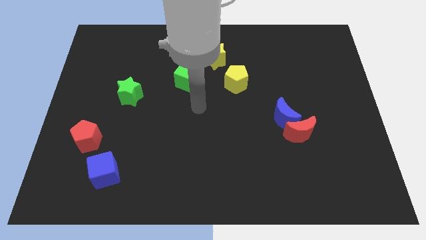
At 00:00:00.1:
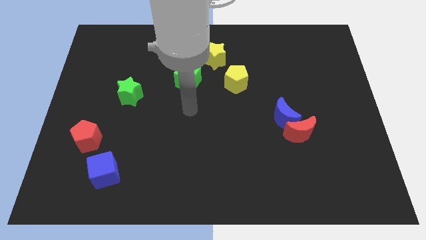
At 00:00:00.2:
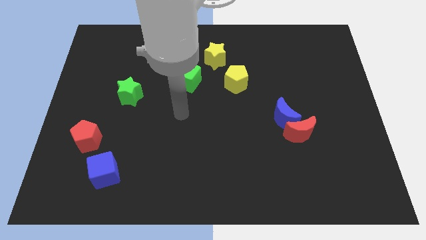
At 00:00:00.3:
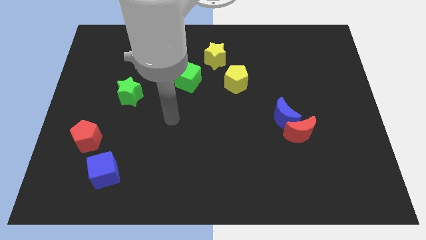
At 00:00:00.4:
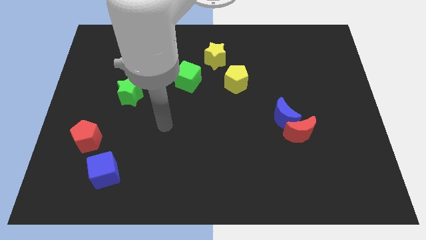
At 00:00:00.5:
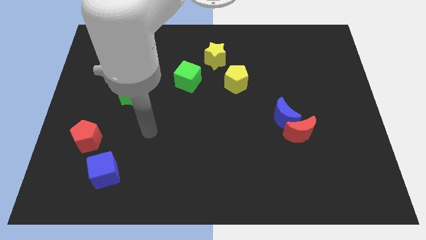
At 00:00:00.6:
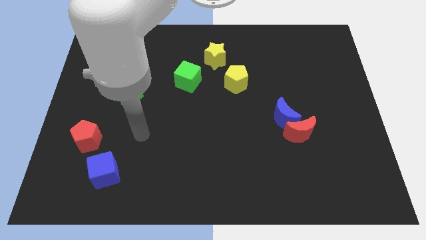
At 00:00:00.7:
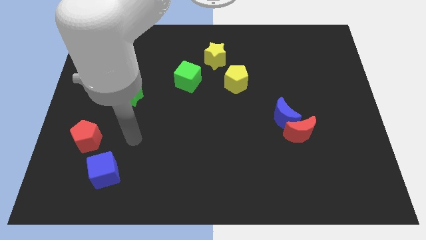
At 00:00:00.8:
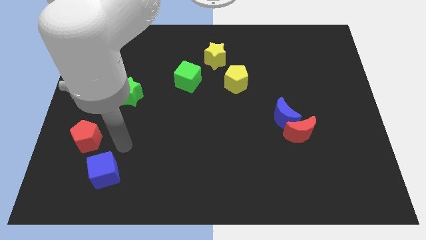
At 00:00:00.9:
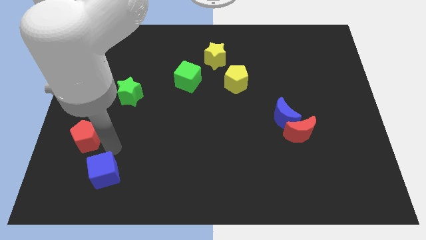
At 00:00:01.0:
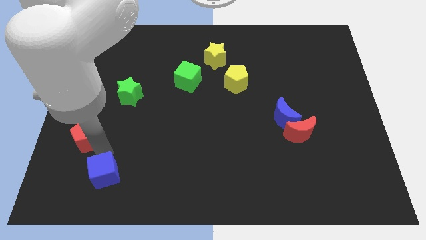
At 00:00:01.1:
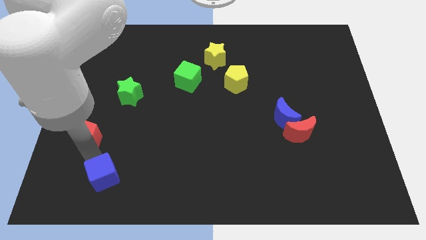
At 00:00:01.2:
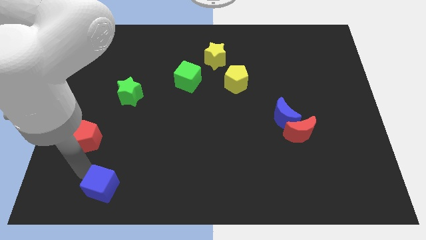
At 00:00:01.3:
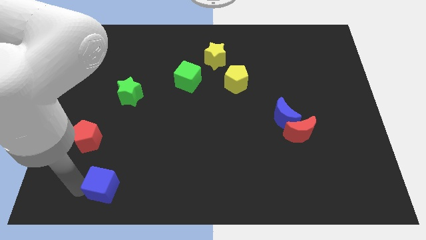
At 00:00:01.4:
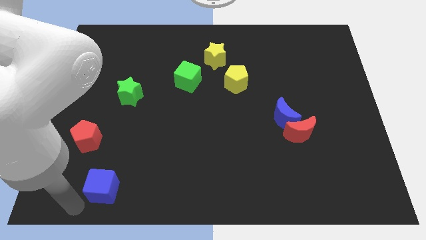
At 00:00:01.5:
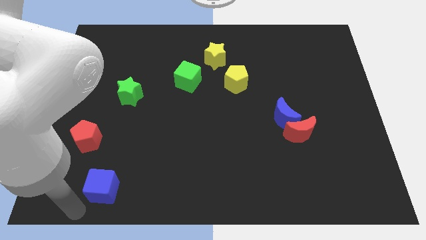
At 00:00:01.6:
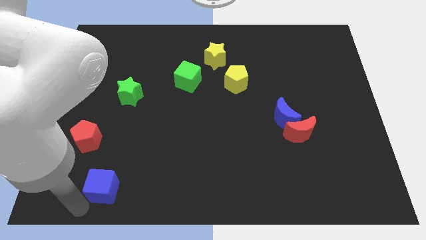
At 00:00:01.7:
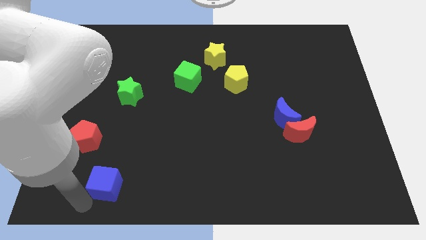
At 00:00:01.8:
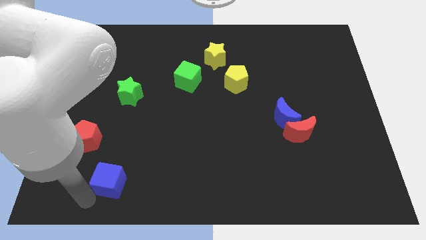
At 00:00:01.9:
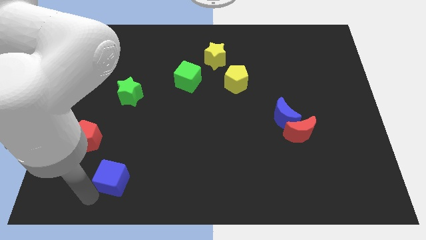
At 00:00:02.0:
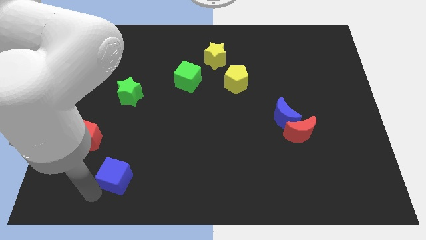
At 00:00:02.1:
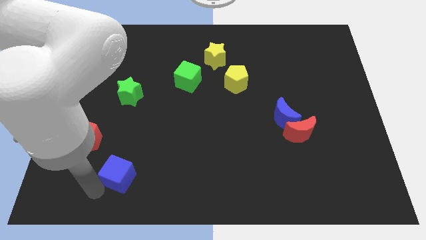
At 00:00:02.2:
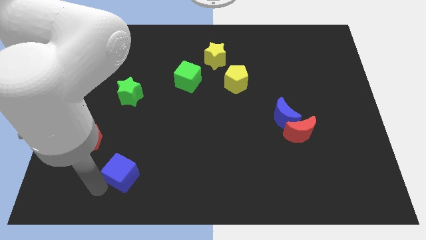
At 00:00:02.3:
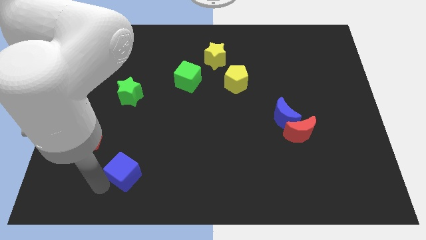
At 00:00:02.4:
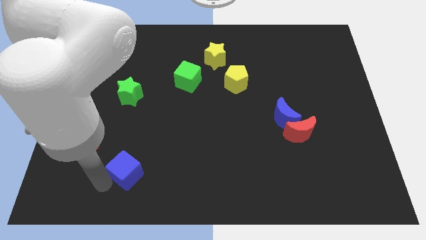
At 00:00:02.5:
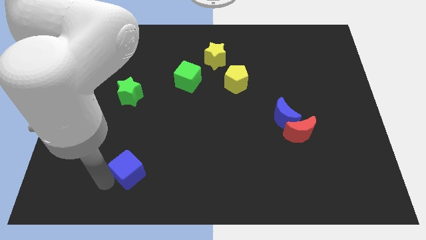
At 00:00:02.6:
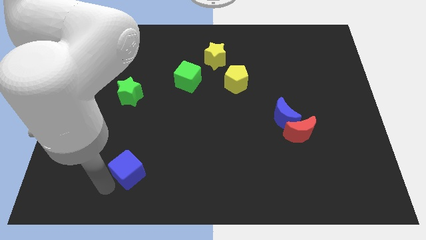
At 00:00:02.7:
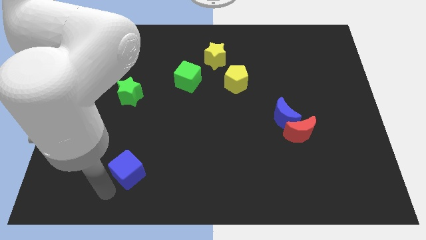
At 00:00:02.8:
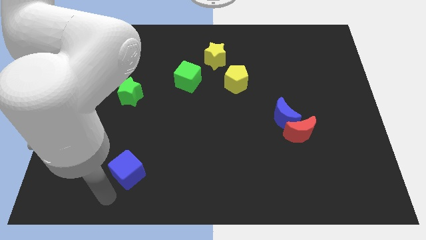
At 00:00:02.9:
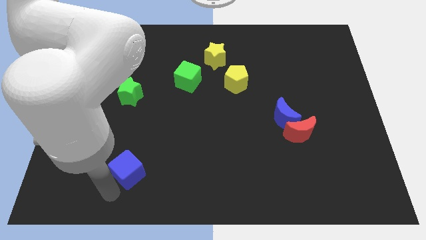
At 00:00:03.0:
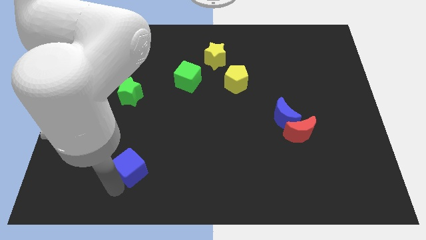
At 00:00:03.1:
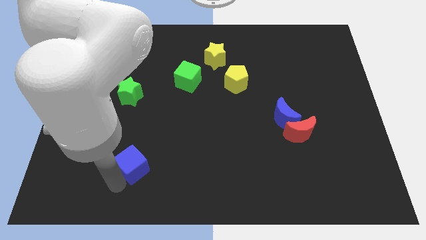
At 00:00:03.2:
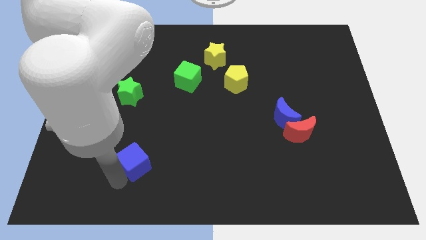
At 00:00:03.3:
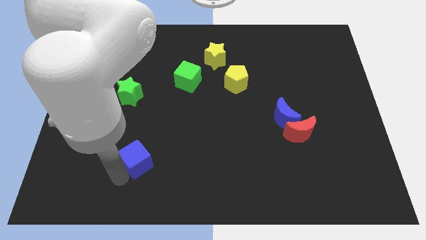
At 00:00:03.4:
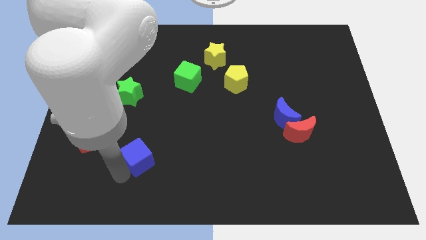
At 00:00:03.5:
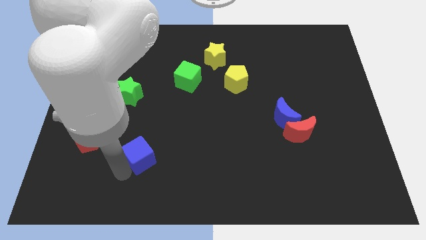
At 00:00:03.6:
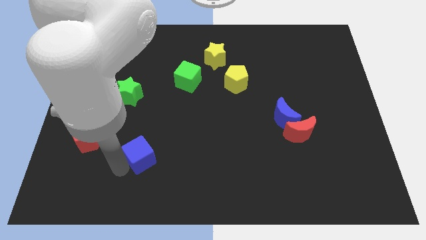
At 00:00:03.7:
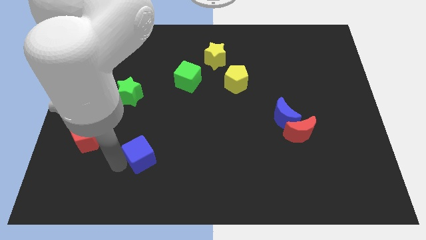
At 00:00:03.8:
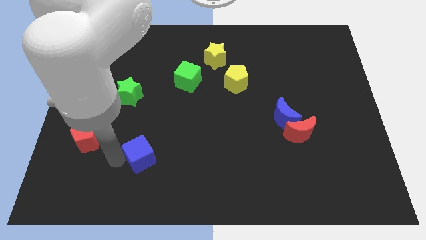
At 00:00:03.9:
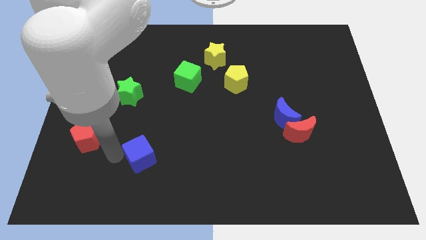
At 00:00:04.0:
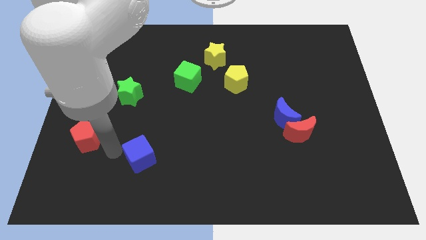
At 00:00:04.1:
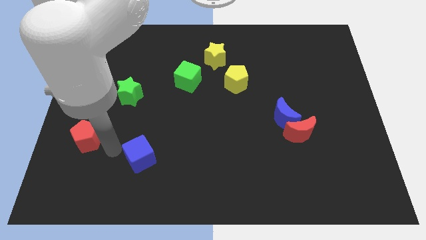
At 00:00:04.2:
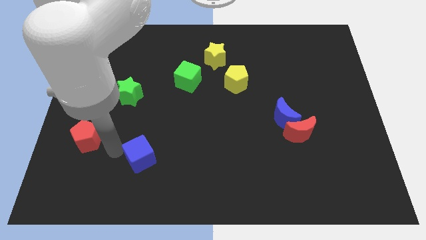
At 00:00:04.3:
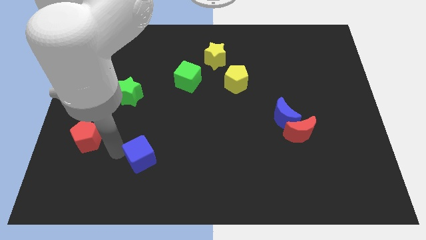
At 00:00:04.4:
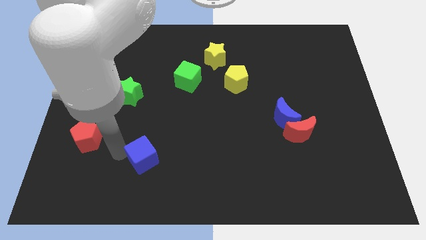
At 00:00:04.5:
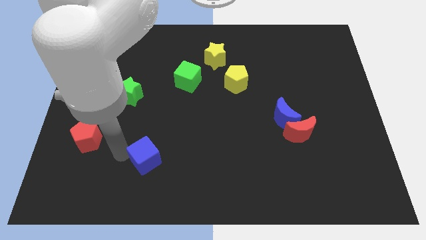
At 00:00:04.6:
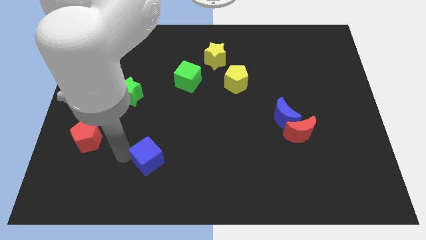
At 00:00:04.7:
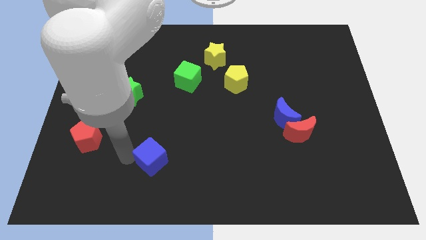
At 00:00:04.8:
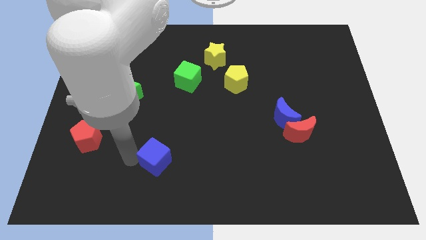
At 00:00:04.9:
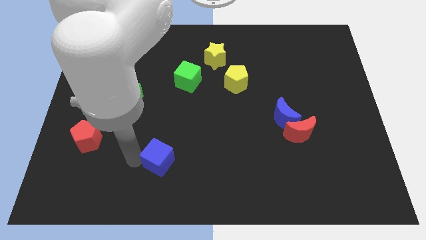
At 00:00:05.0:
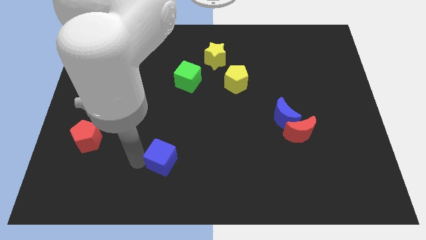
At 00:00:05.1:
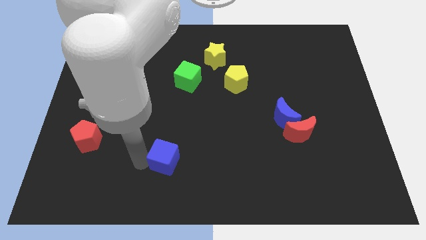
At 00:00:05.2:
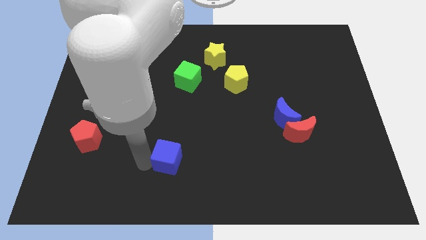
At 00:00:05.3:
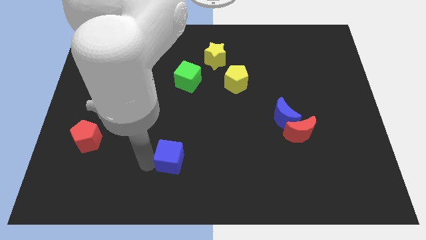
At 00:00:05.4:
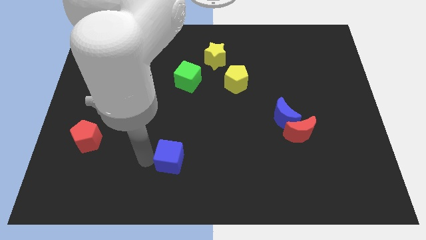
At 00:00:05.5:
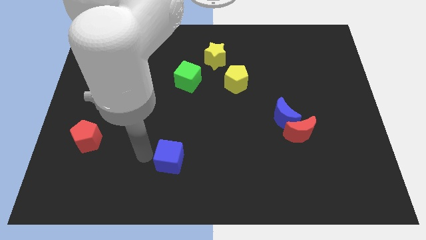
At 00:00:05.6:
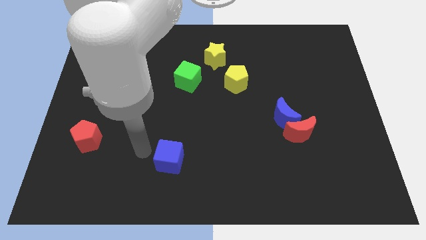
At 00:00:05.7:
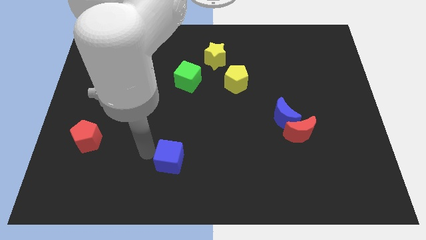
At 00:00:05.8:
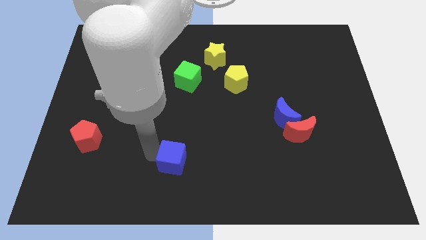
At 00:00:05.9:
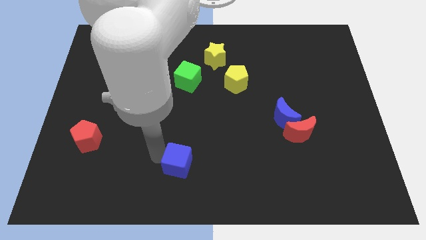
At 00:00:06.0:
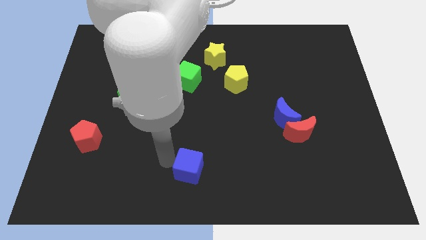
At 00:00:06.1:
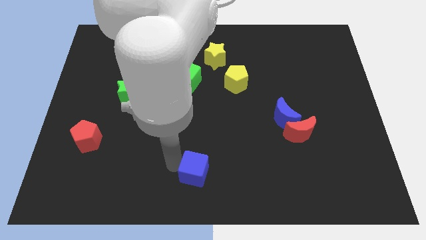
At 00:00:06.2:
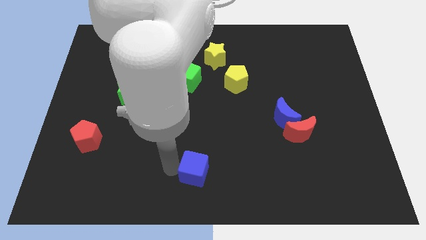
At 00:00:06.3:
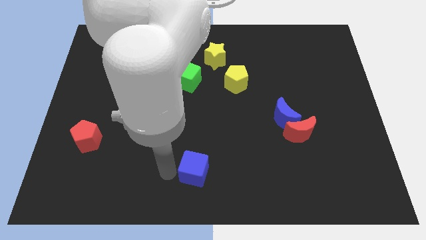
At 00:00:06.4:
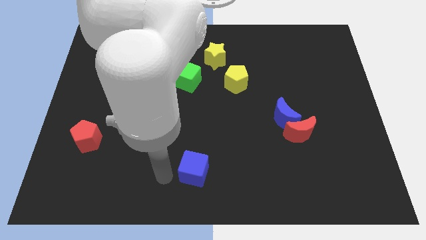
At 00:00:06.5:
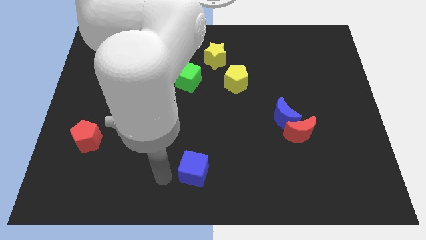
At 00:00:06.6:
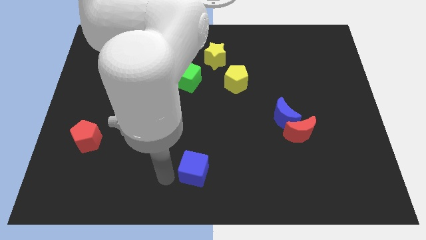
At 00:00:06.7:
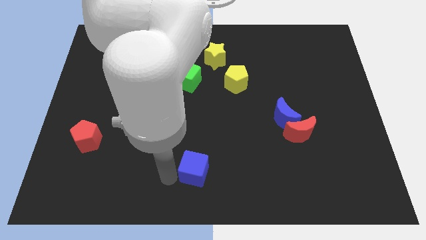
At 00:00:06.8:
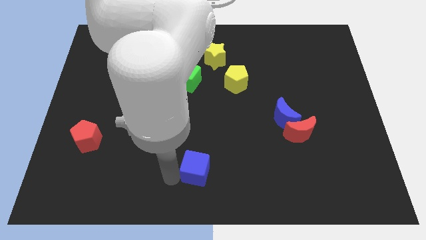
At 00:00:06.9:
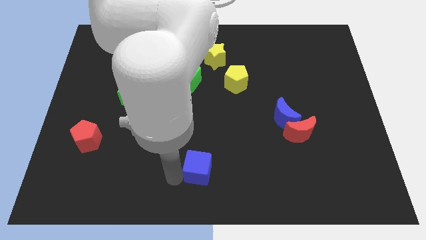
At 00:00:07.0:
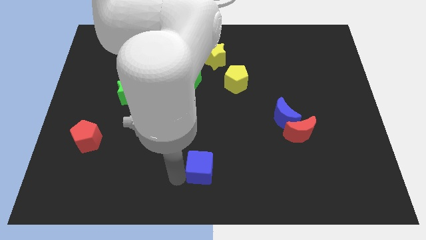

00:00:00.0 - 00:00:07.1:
push the blue cube right

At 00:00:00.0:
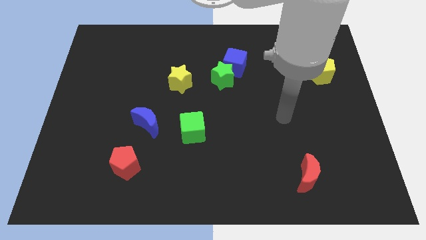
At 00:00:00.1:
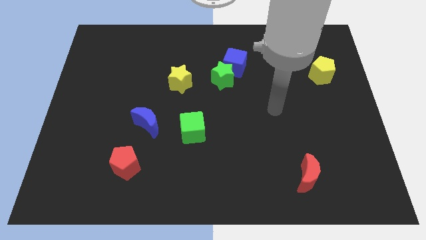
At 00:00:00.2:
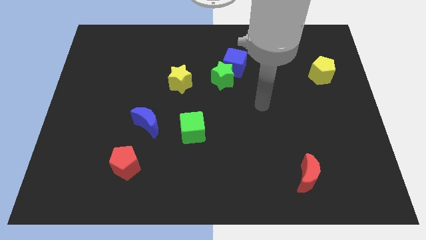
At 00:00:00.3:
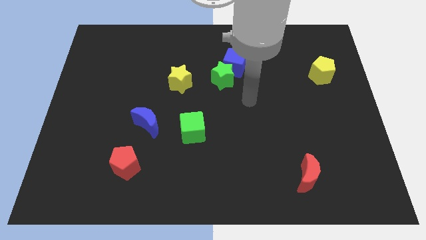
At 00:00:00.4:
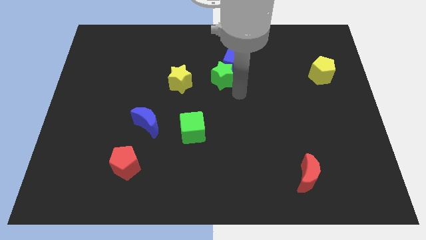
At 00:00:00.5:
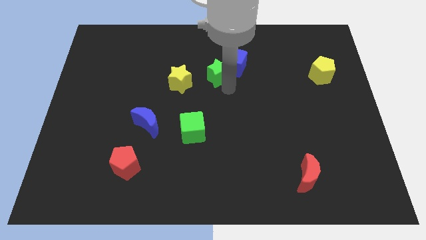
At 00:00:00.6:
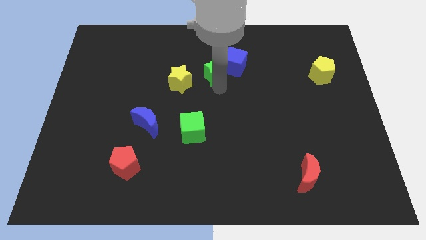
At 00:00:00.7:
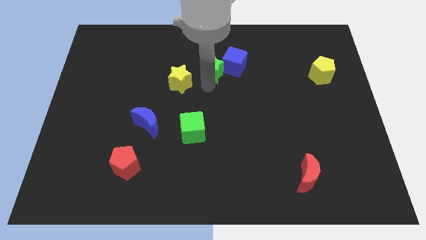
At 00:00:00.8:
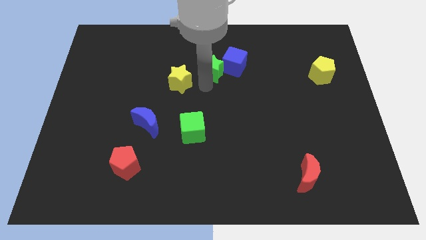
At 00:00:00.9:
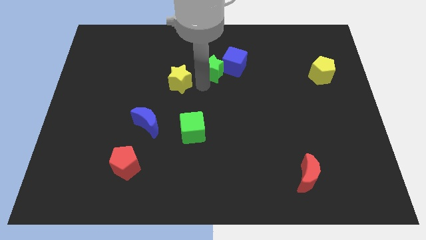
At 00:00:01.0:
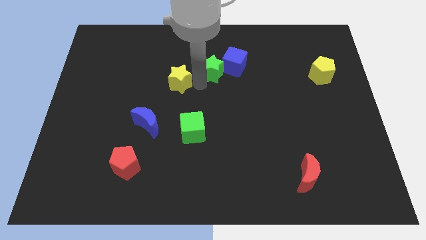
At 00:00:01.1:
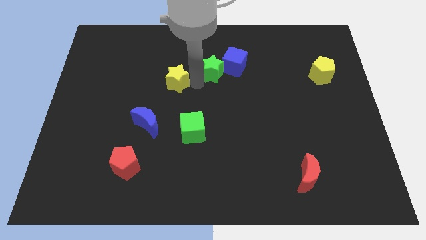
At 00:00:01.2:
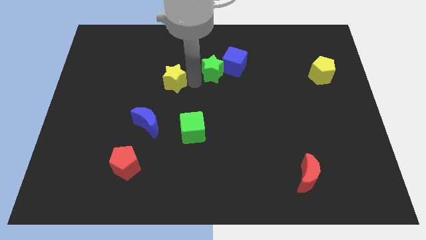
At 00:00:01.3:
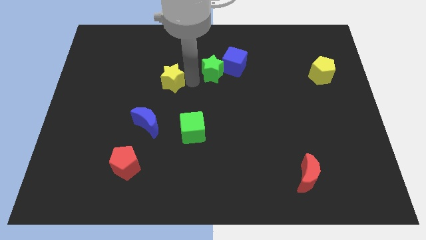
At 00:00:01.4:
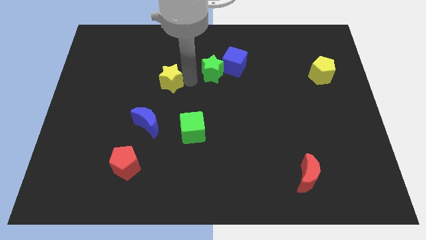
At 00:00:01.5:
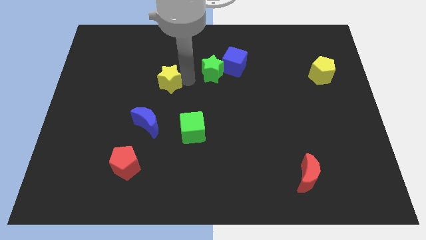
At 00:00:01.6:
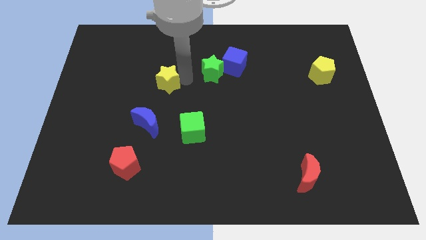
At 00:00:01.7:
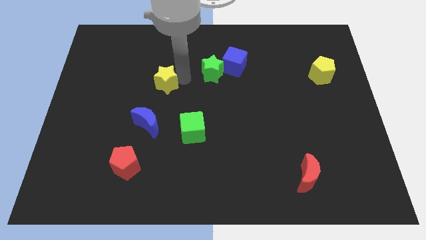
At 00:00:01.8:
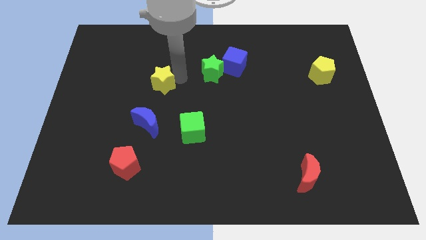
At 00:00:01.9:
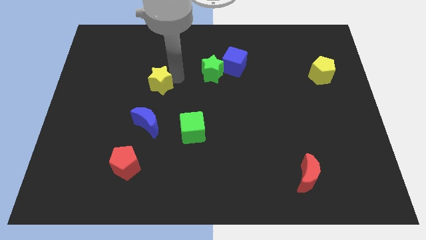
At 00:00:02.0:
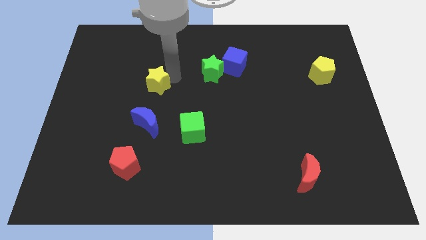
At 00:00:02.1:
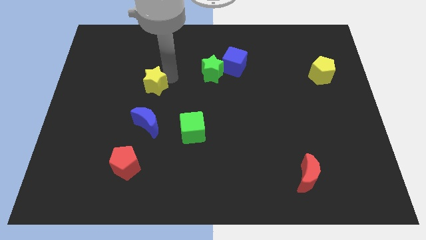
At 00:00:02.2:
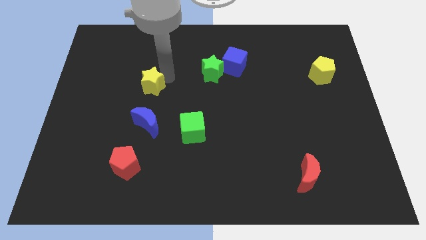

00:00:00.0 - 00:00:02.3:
slightly push the yellow star to the left
